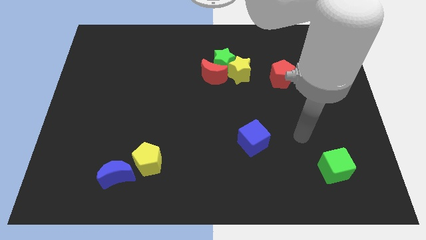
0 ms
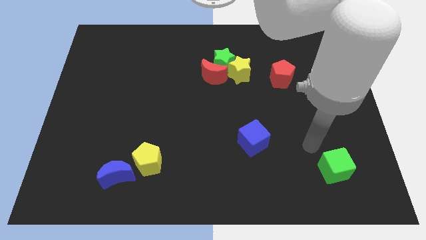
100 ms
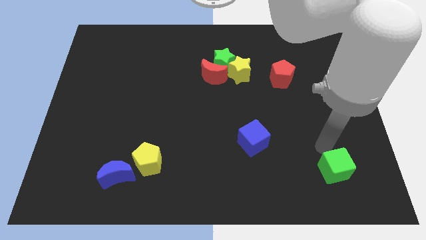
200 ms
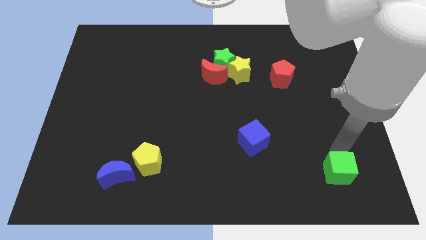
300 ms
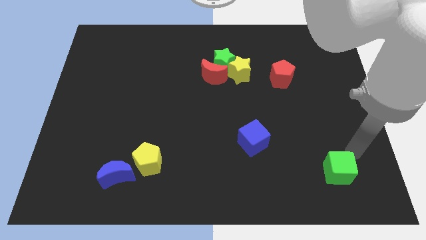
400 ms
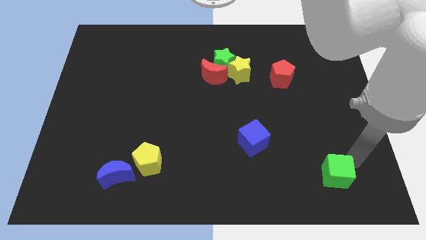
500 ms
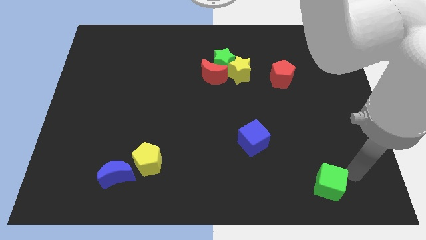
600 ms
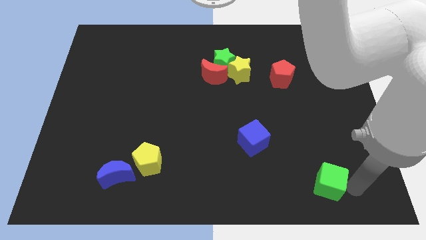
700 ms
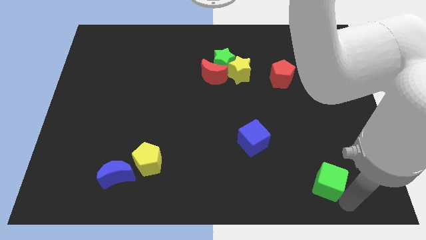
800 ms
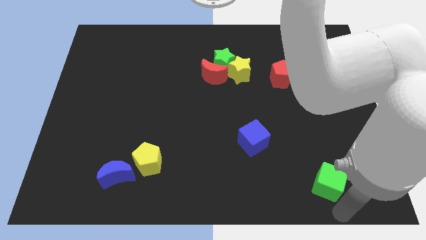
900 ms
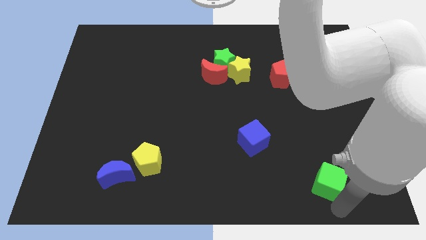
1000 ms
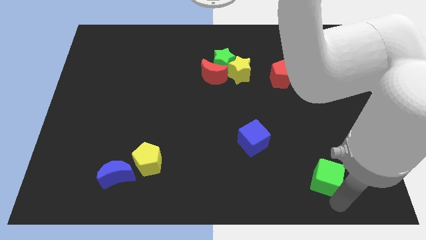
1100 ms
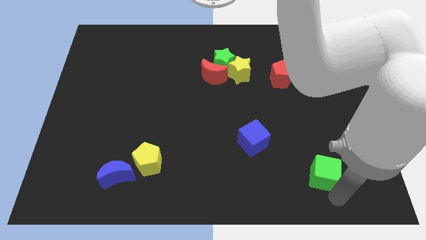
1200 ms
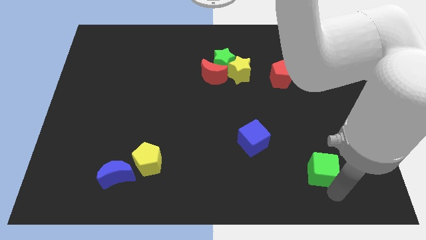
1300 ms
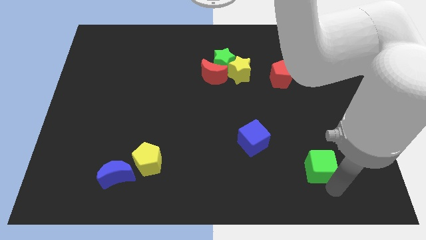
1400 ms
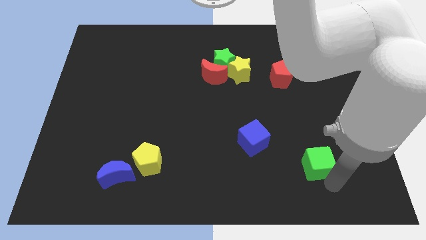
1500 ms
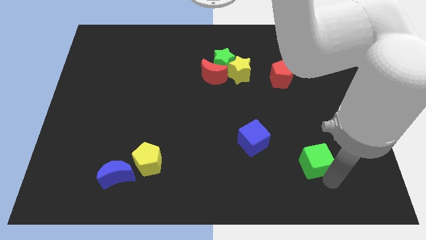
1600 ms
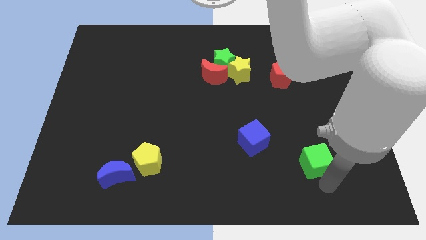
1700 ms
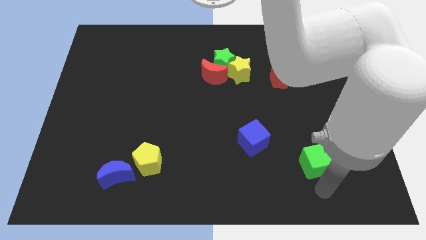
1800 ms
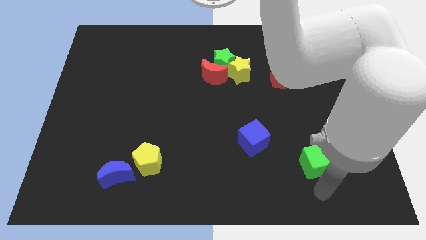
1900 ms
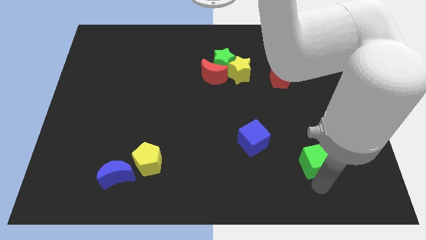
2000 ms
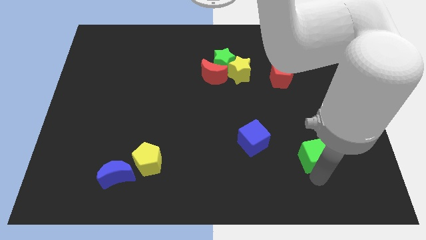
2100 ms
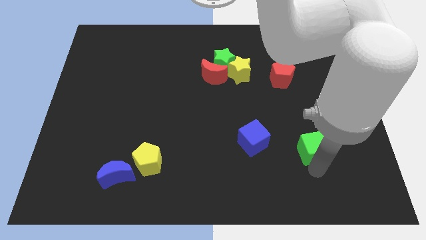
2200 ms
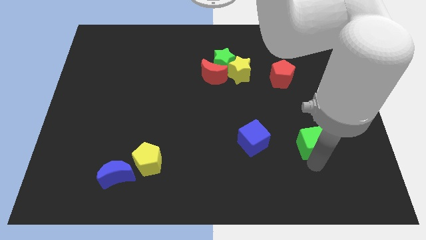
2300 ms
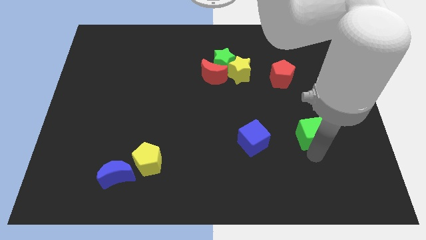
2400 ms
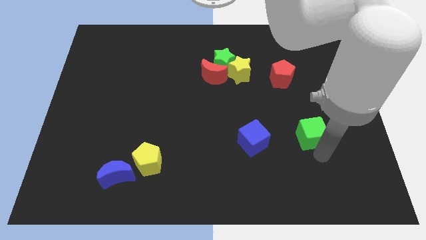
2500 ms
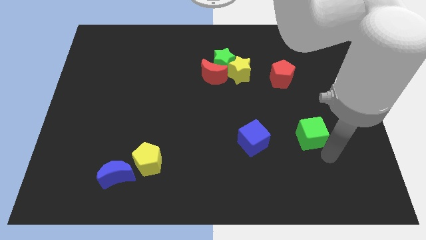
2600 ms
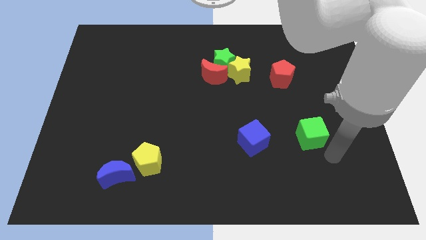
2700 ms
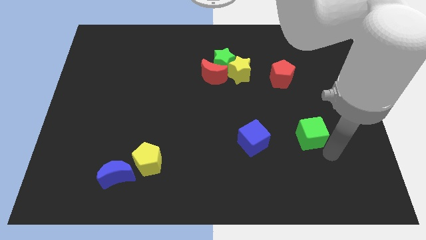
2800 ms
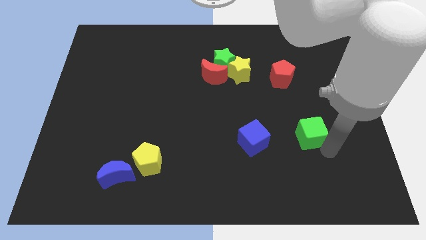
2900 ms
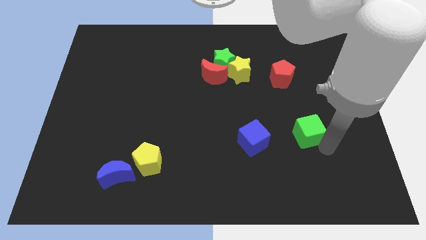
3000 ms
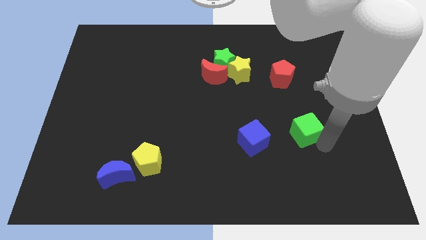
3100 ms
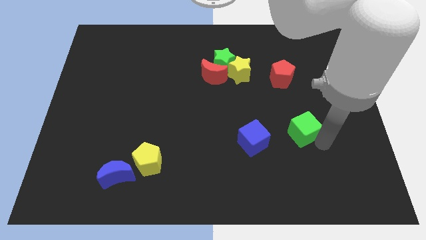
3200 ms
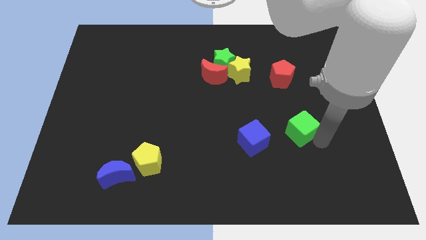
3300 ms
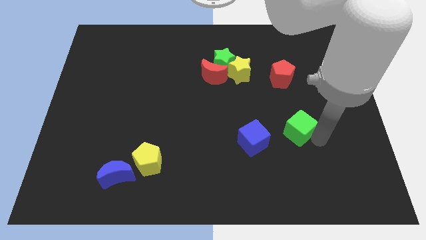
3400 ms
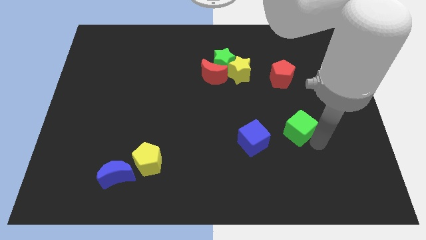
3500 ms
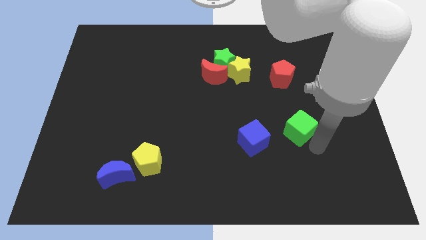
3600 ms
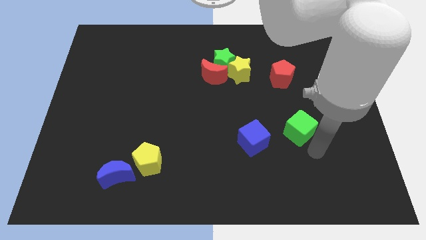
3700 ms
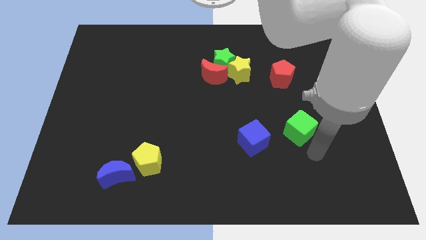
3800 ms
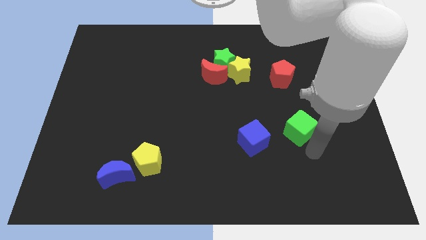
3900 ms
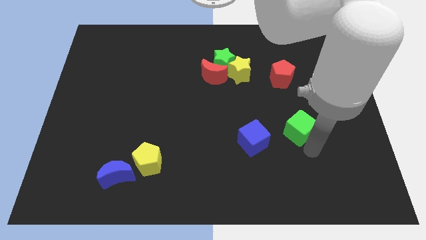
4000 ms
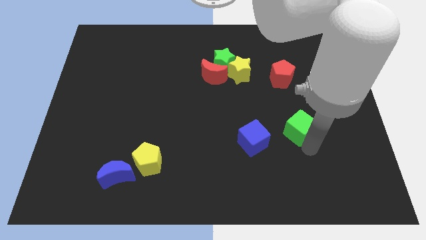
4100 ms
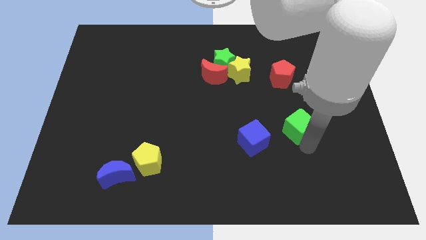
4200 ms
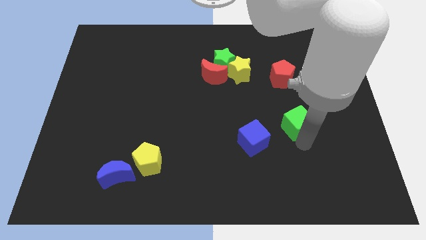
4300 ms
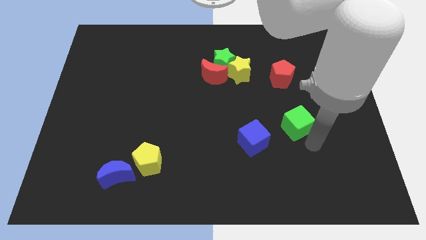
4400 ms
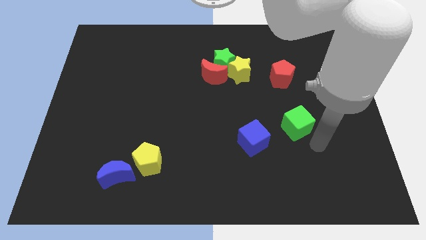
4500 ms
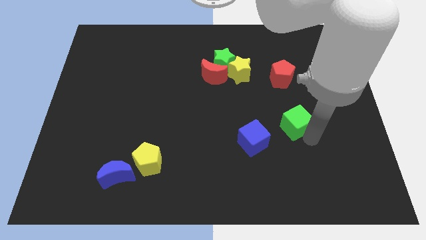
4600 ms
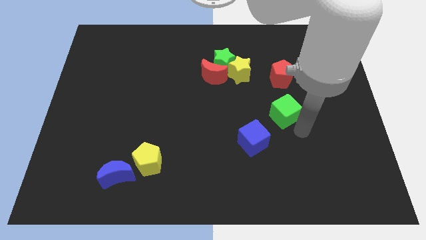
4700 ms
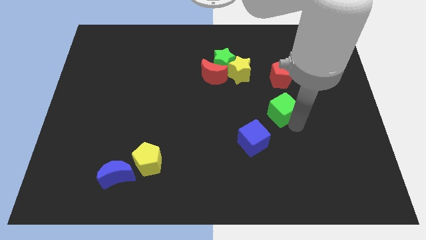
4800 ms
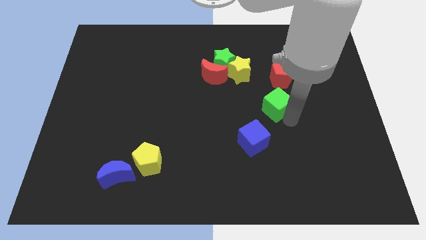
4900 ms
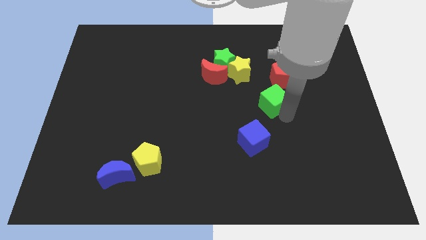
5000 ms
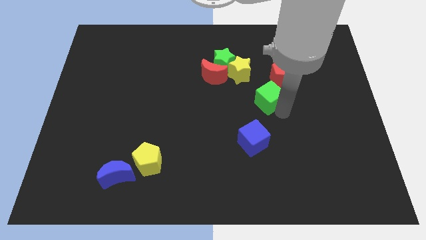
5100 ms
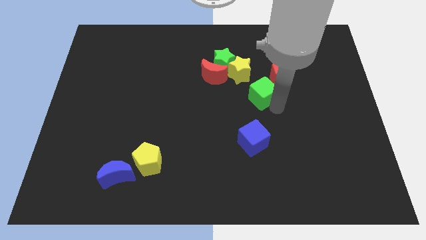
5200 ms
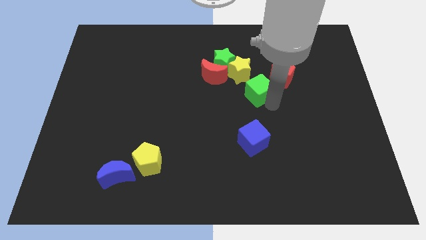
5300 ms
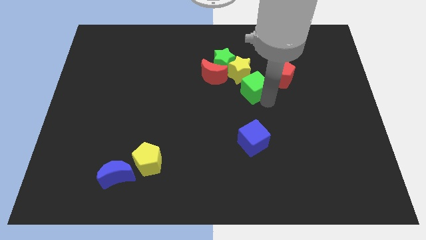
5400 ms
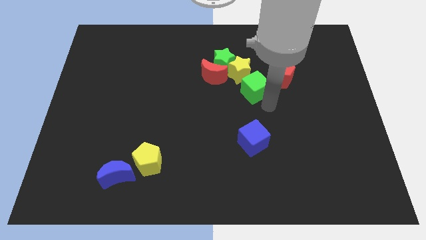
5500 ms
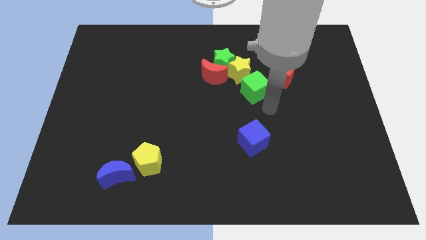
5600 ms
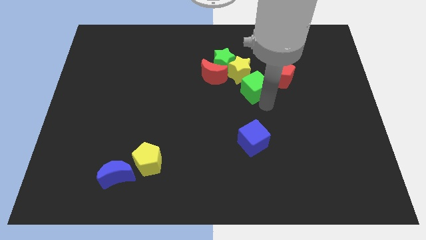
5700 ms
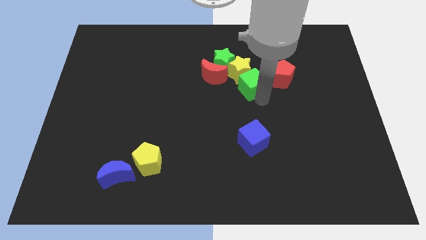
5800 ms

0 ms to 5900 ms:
put the green cube to the yellow star

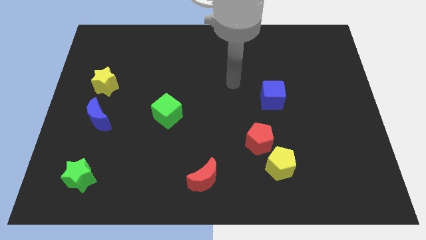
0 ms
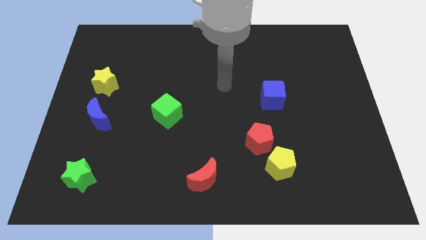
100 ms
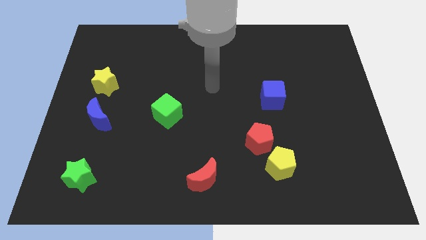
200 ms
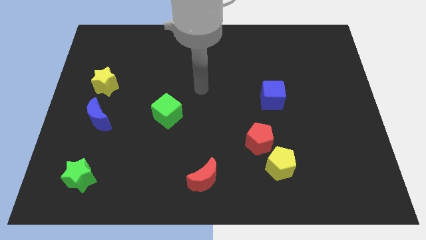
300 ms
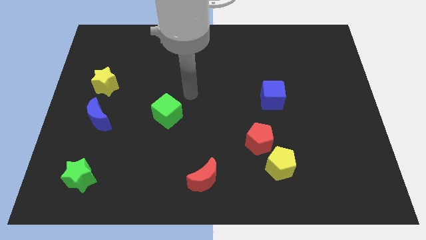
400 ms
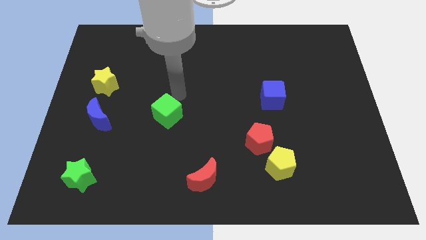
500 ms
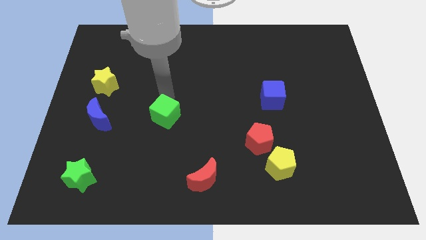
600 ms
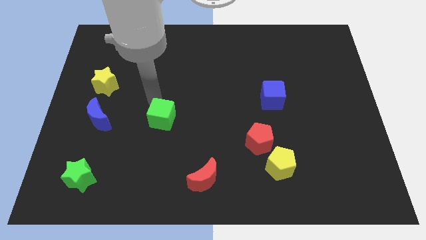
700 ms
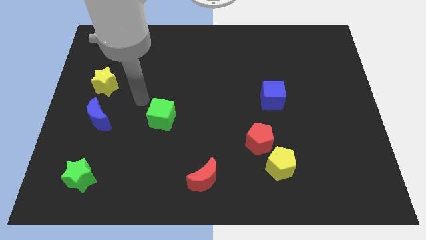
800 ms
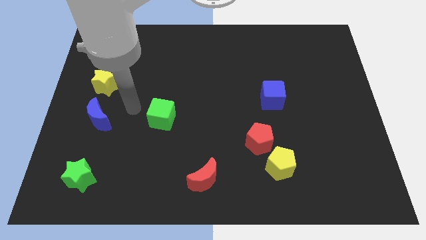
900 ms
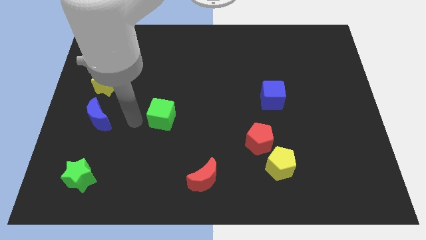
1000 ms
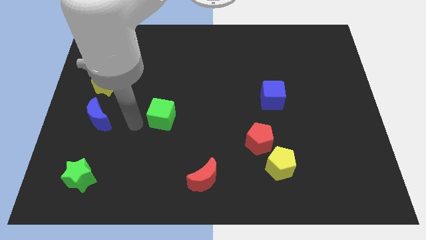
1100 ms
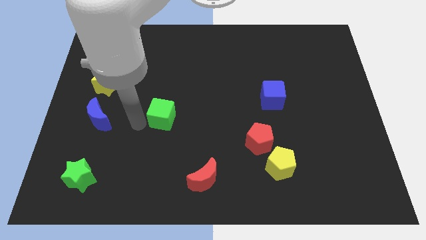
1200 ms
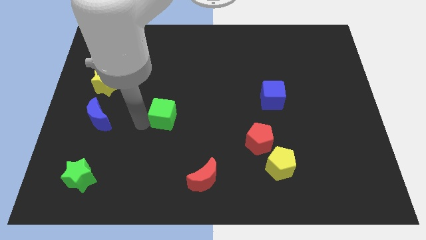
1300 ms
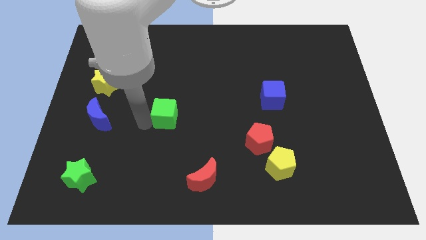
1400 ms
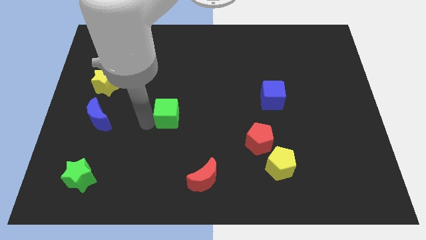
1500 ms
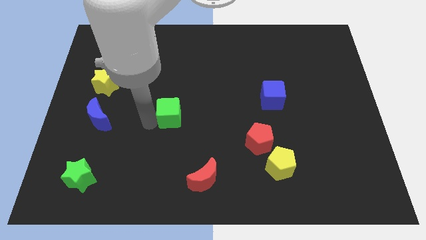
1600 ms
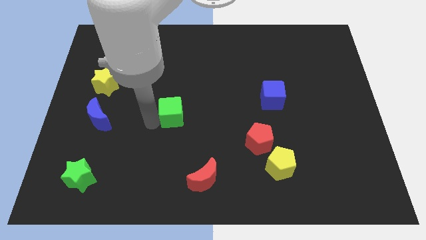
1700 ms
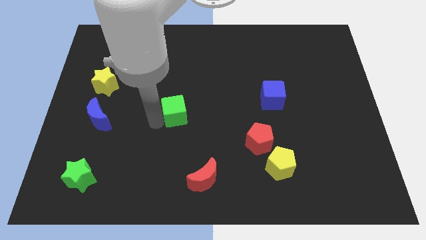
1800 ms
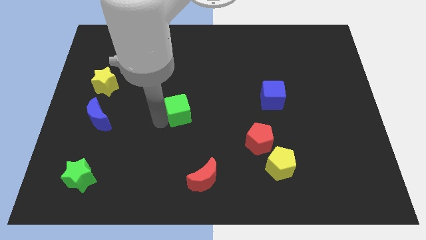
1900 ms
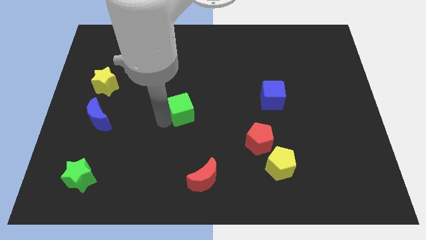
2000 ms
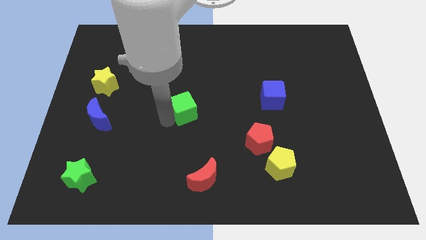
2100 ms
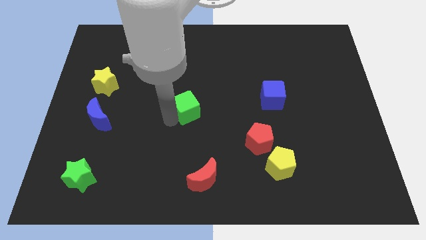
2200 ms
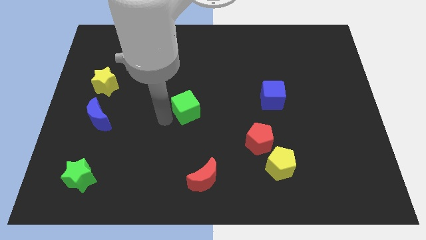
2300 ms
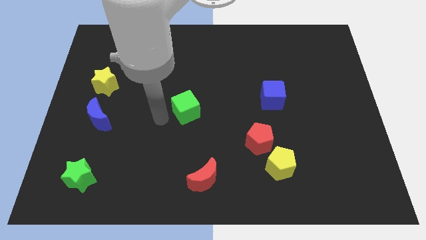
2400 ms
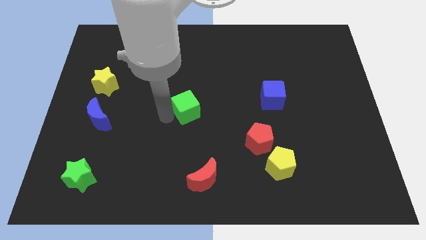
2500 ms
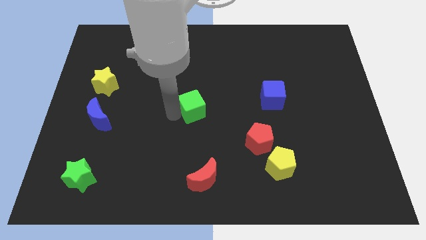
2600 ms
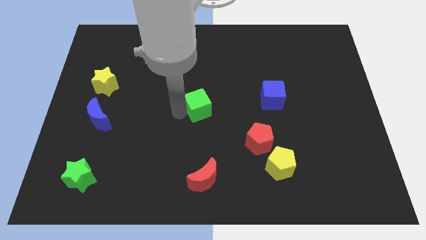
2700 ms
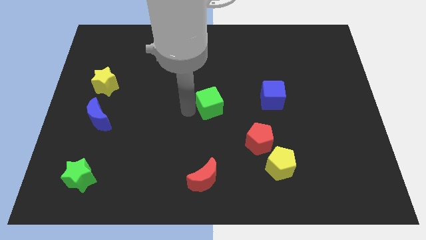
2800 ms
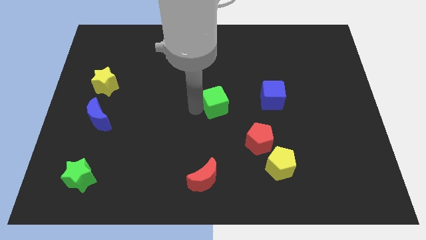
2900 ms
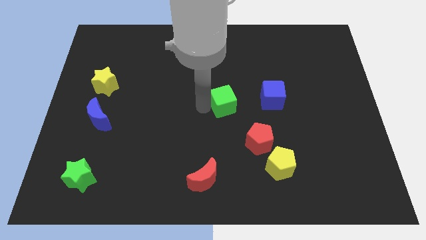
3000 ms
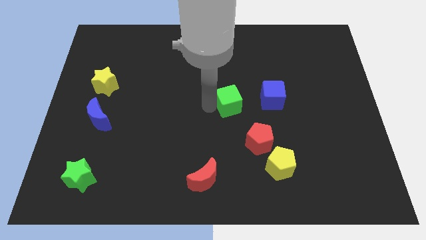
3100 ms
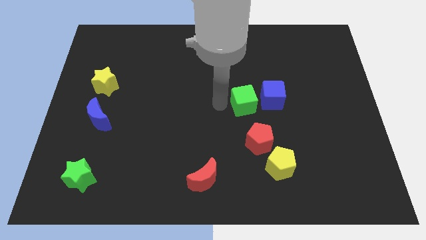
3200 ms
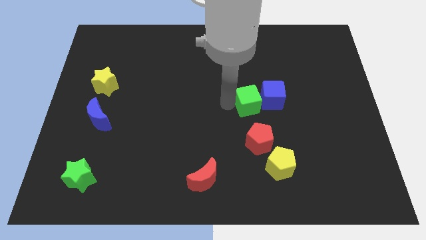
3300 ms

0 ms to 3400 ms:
move the green cube towards the blue cube
